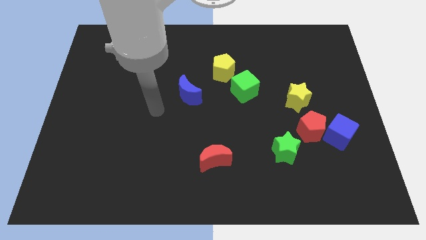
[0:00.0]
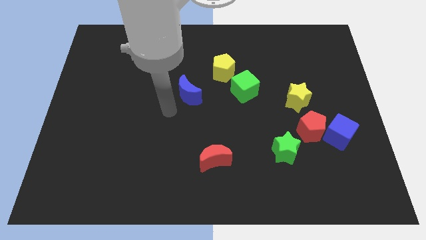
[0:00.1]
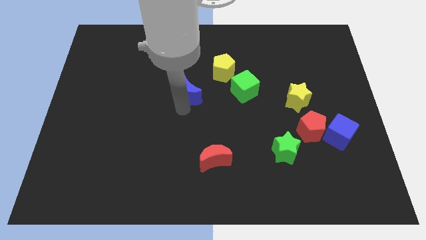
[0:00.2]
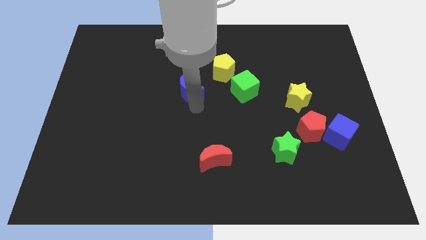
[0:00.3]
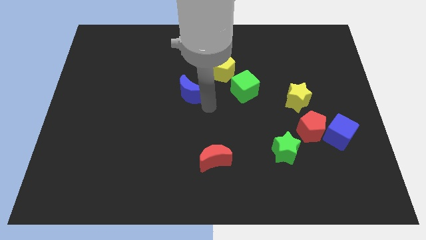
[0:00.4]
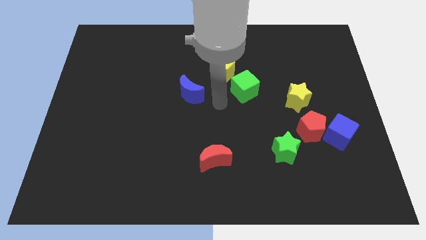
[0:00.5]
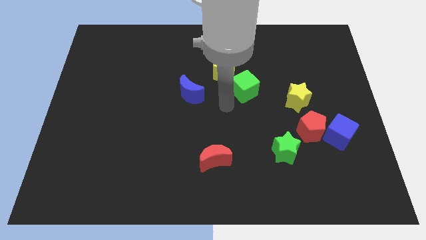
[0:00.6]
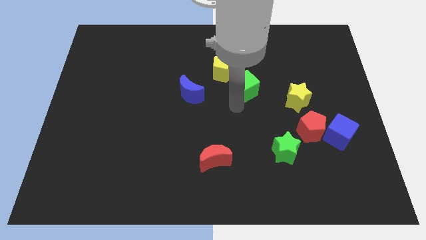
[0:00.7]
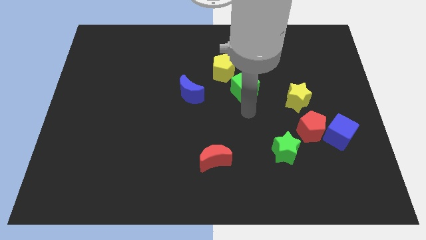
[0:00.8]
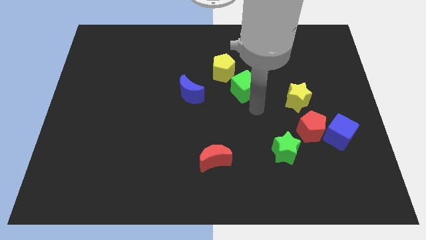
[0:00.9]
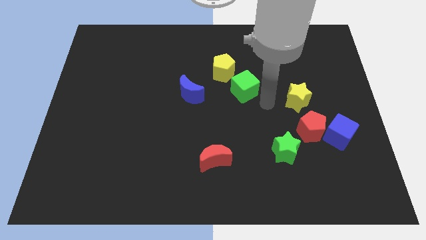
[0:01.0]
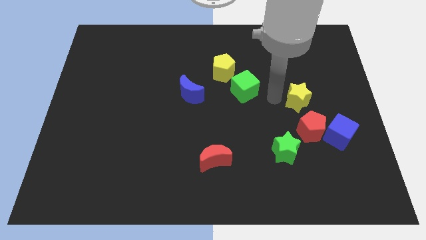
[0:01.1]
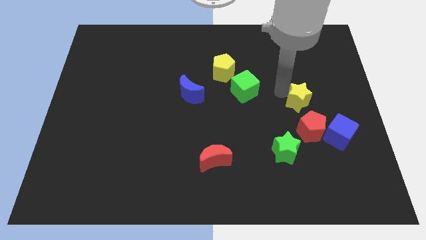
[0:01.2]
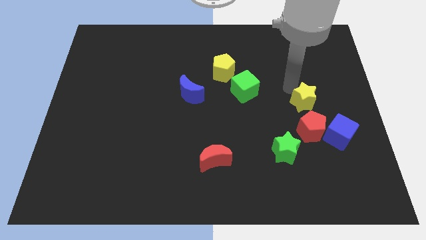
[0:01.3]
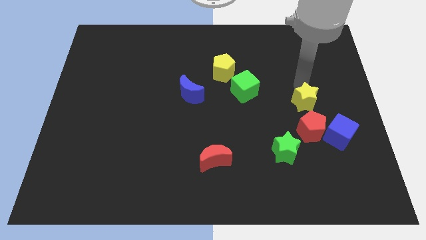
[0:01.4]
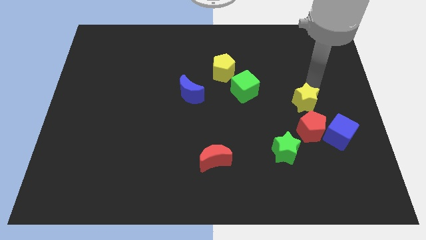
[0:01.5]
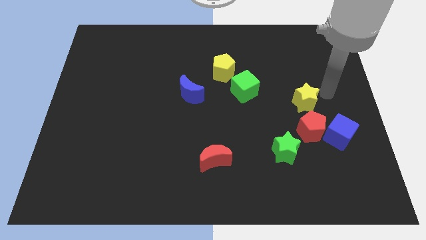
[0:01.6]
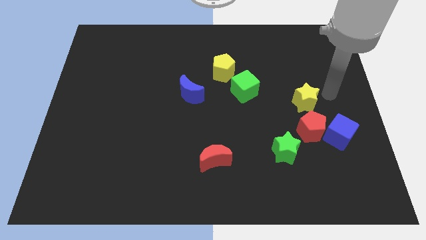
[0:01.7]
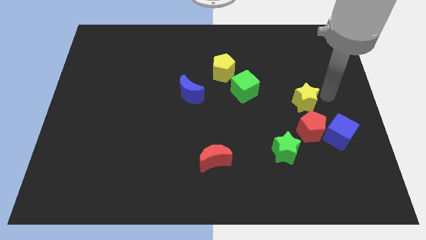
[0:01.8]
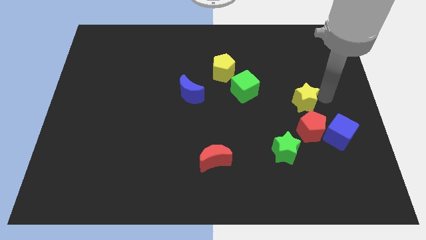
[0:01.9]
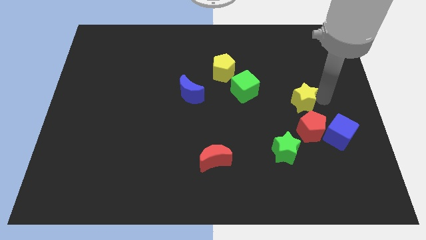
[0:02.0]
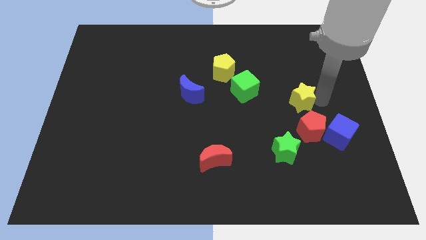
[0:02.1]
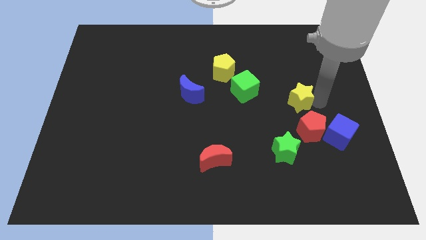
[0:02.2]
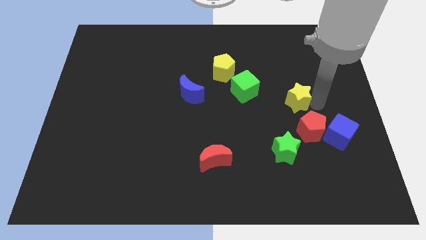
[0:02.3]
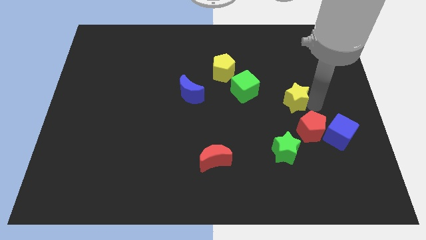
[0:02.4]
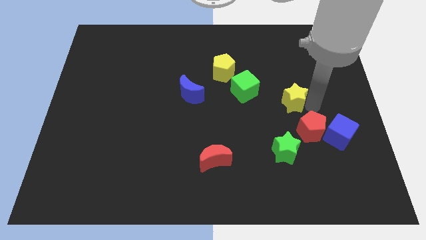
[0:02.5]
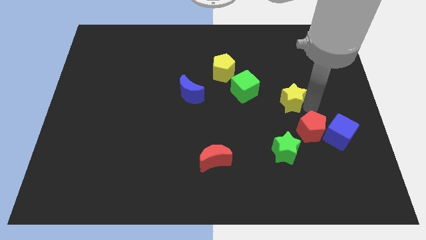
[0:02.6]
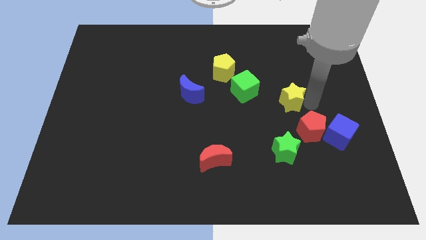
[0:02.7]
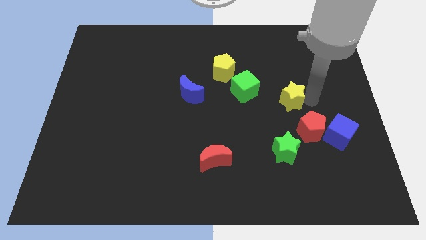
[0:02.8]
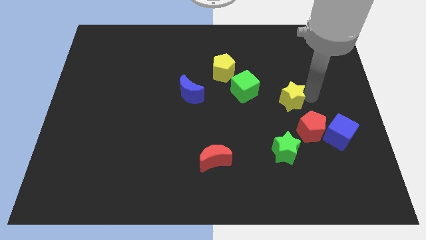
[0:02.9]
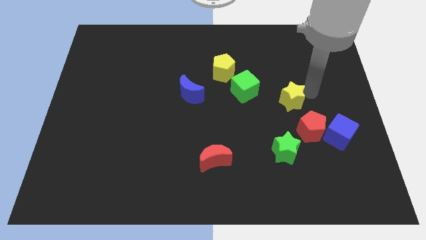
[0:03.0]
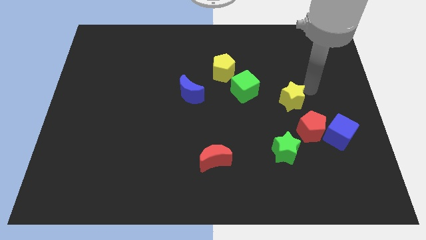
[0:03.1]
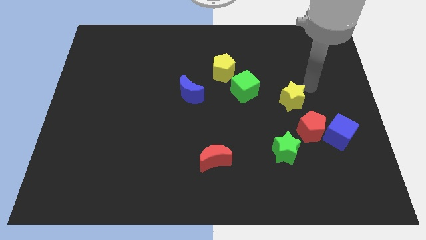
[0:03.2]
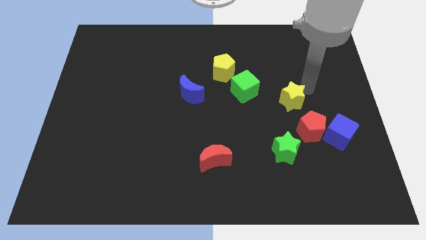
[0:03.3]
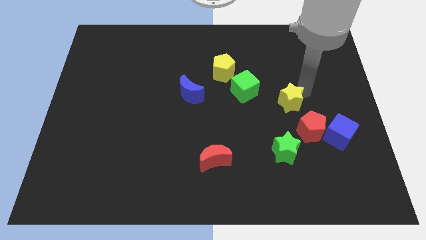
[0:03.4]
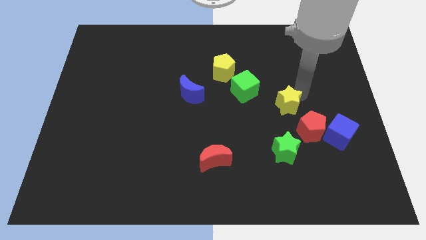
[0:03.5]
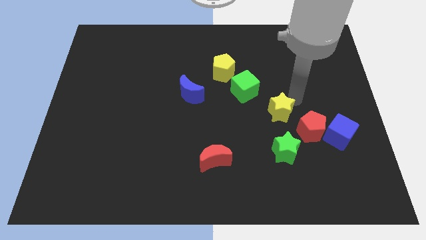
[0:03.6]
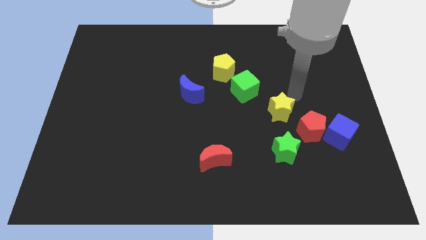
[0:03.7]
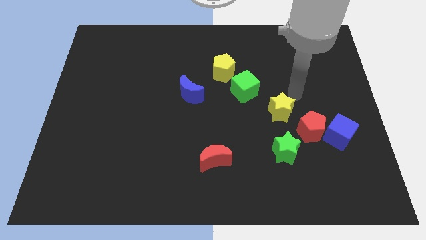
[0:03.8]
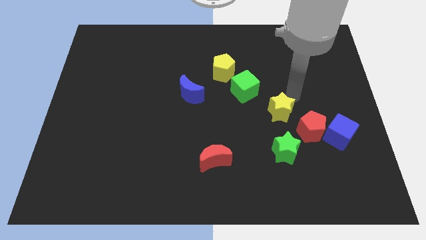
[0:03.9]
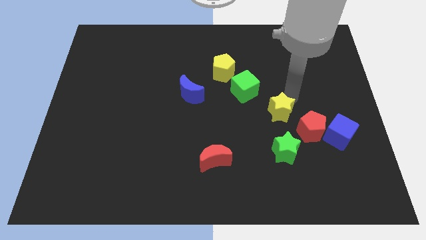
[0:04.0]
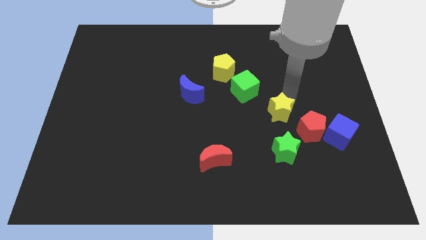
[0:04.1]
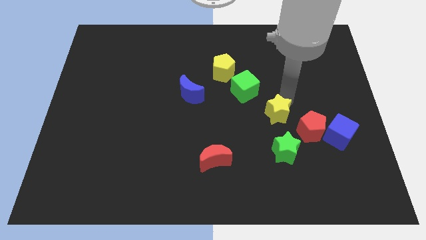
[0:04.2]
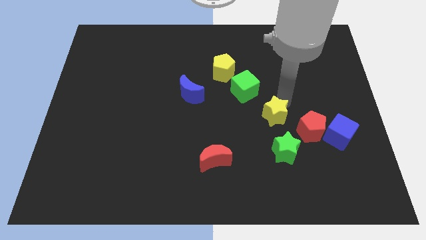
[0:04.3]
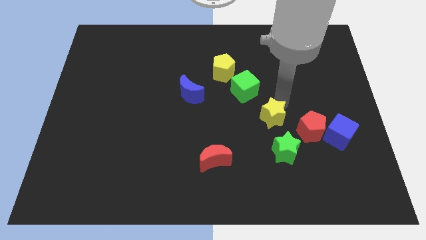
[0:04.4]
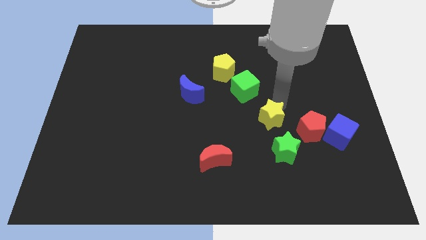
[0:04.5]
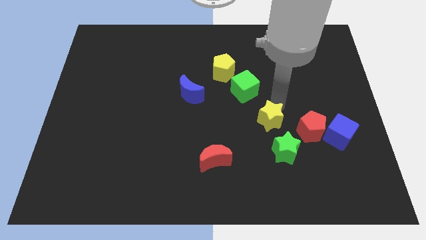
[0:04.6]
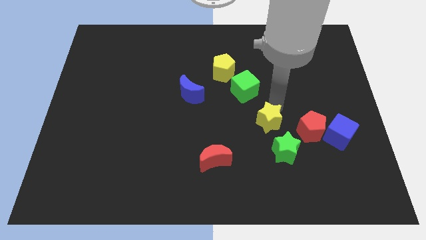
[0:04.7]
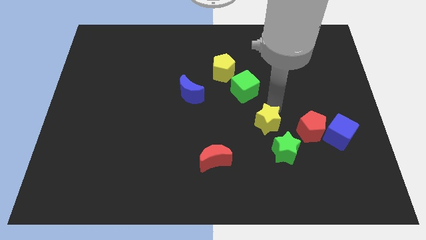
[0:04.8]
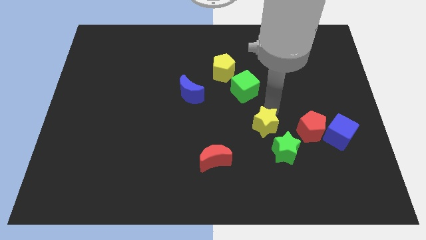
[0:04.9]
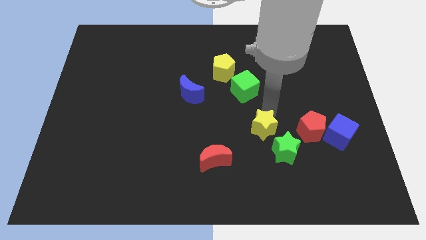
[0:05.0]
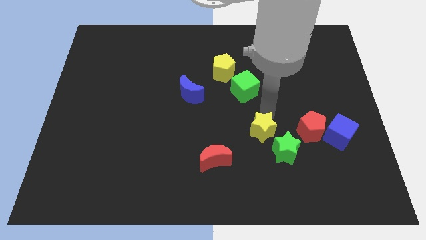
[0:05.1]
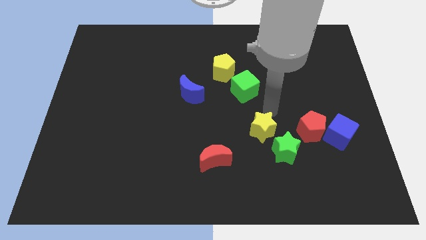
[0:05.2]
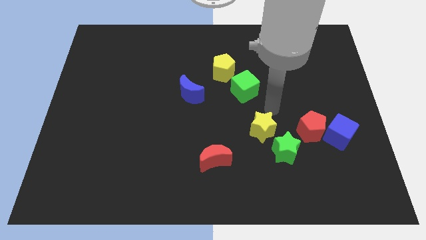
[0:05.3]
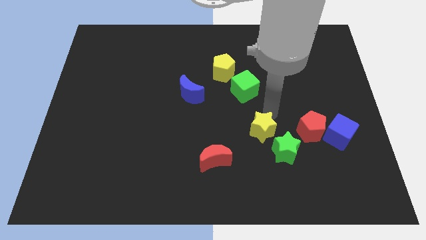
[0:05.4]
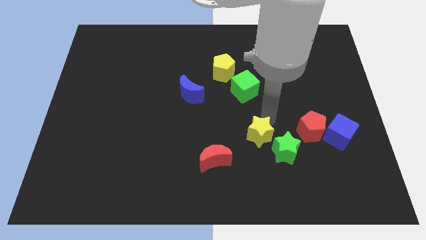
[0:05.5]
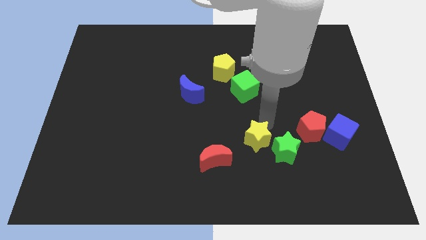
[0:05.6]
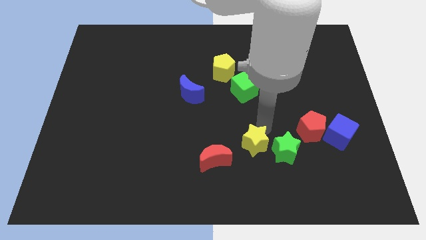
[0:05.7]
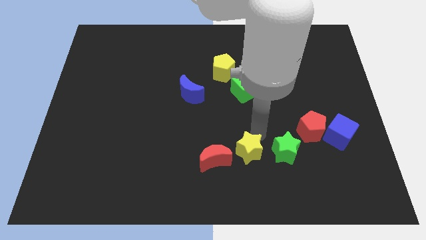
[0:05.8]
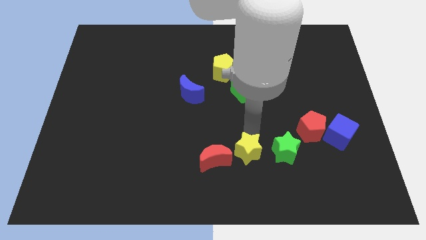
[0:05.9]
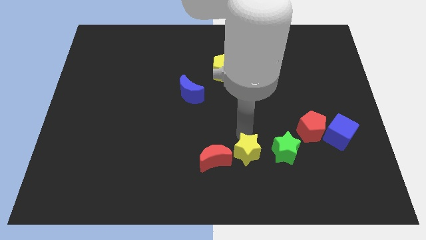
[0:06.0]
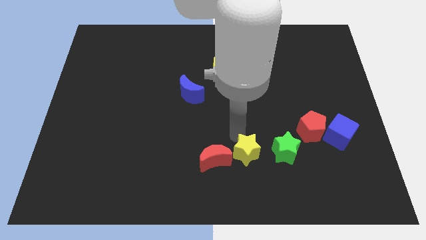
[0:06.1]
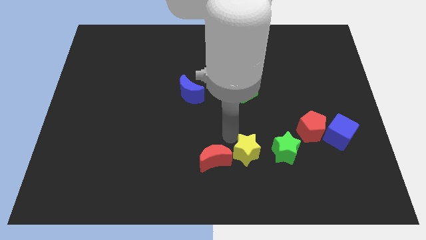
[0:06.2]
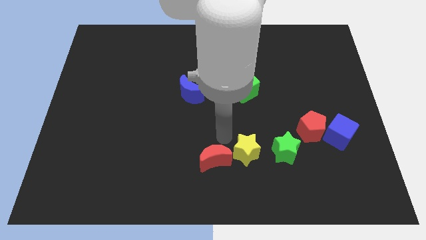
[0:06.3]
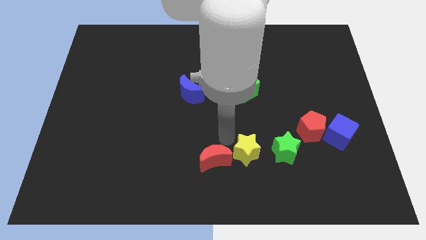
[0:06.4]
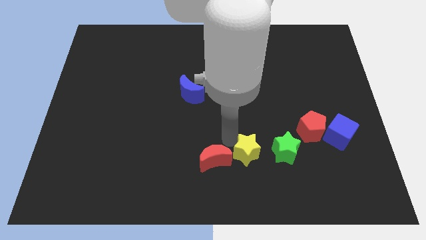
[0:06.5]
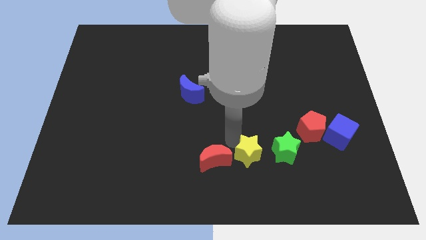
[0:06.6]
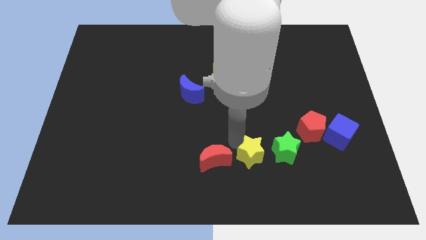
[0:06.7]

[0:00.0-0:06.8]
slightly slide the yellow star downwards

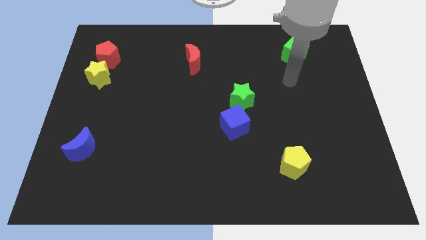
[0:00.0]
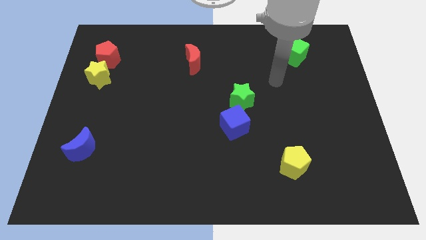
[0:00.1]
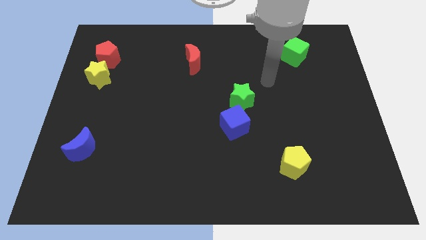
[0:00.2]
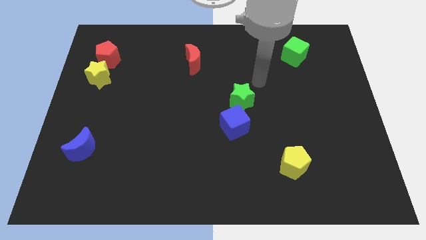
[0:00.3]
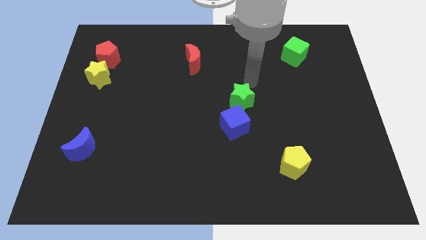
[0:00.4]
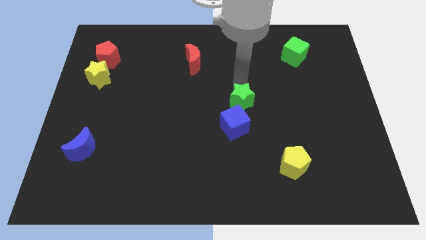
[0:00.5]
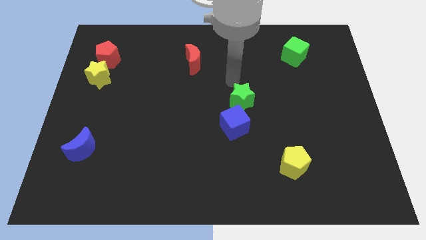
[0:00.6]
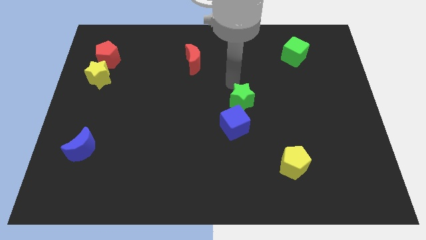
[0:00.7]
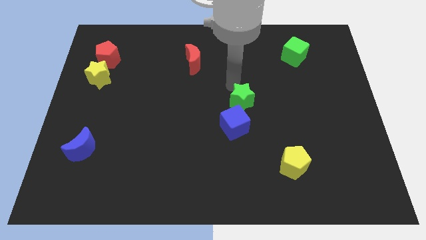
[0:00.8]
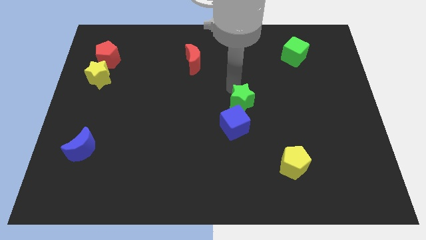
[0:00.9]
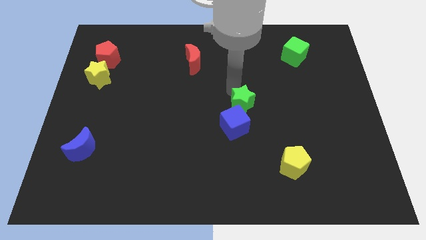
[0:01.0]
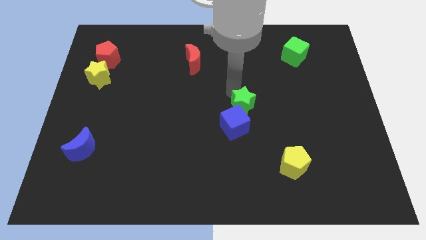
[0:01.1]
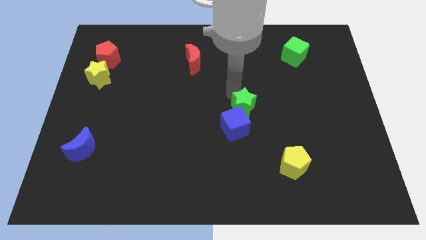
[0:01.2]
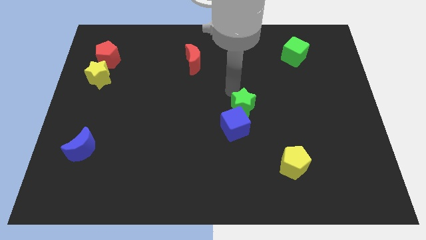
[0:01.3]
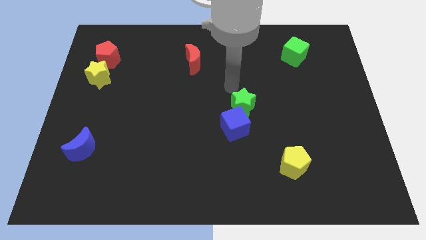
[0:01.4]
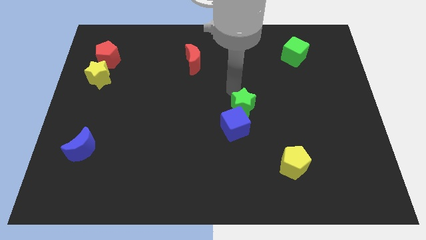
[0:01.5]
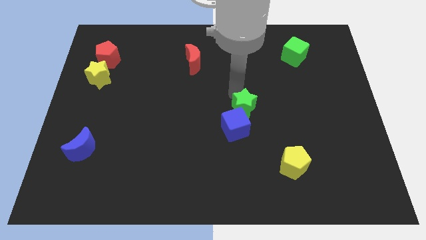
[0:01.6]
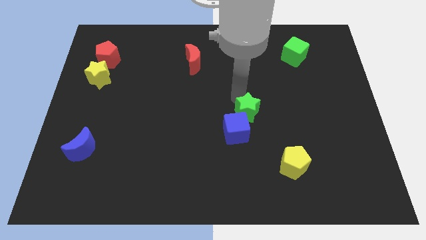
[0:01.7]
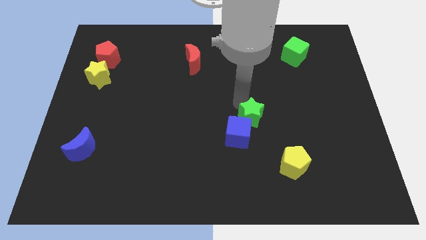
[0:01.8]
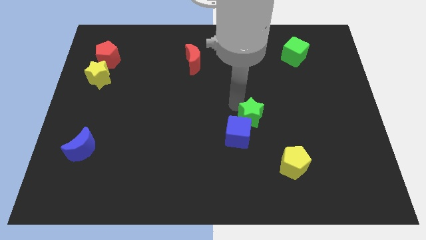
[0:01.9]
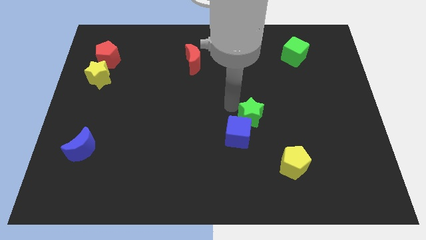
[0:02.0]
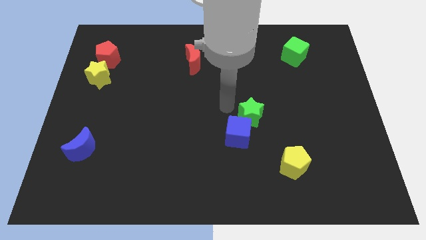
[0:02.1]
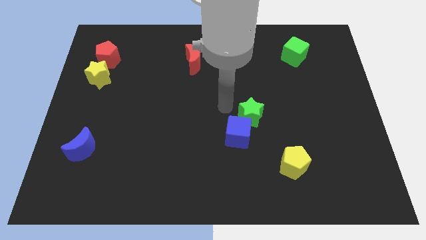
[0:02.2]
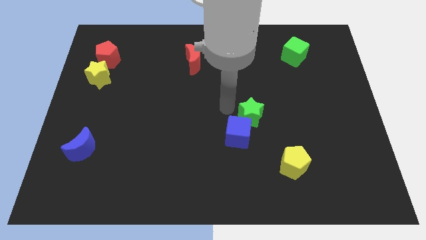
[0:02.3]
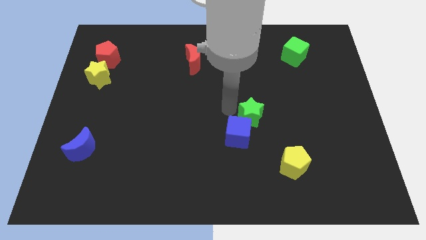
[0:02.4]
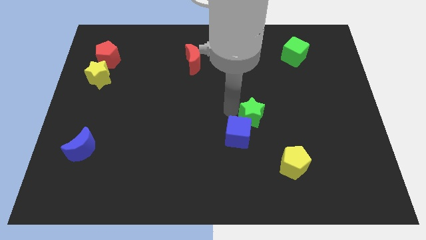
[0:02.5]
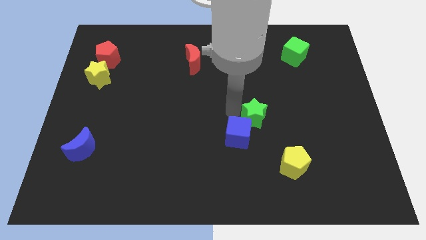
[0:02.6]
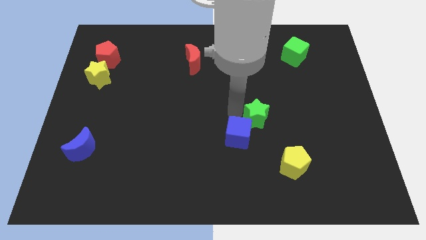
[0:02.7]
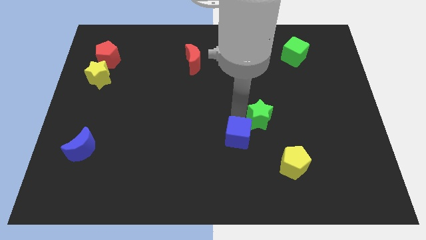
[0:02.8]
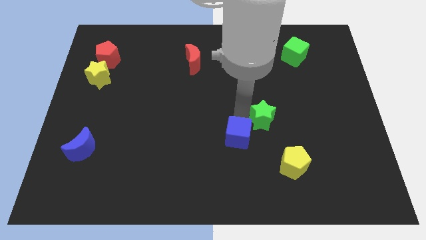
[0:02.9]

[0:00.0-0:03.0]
slightly push the green star down and then right
